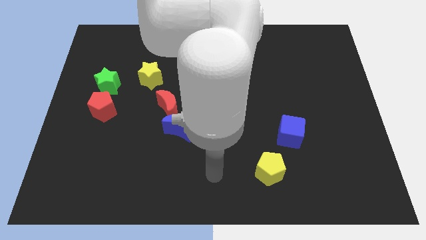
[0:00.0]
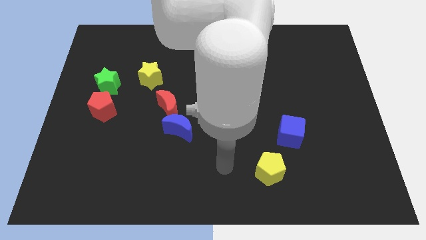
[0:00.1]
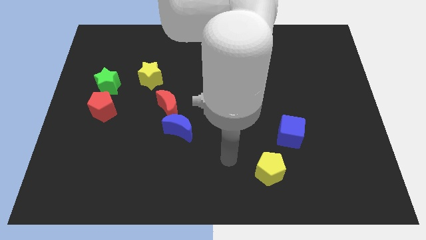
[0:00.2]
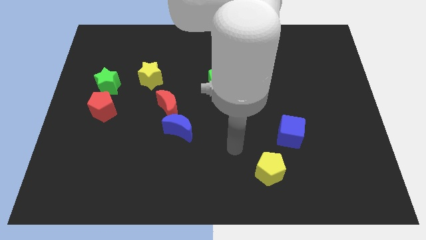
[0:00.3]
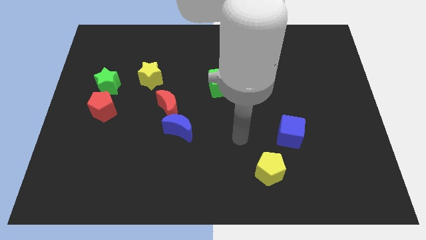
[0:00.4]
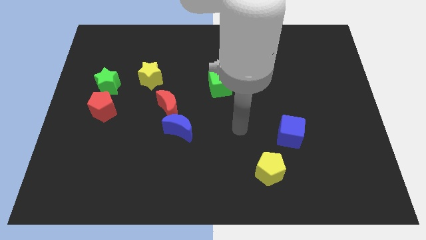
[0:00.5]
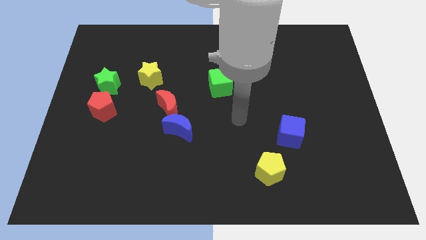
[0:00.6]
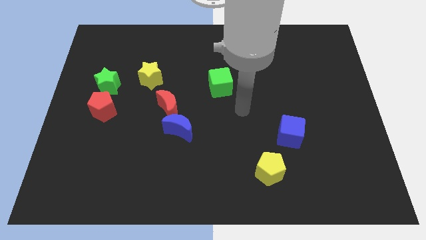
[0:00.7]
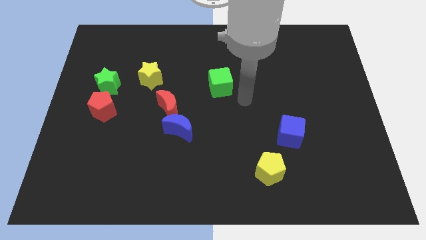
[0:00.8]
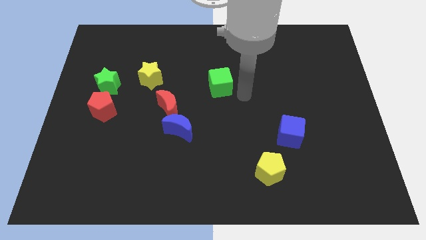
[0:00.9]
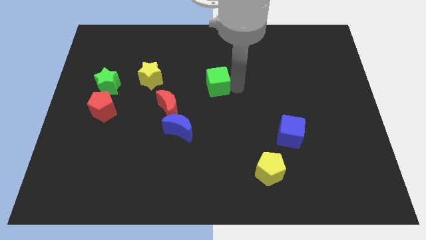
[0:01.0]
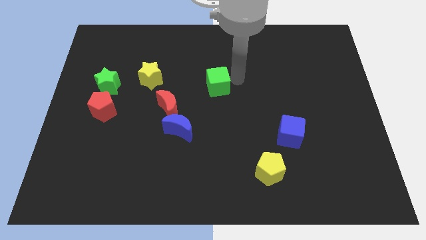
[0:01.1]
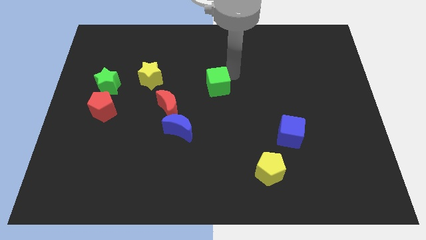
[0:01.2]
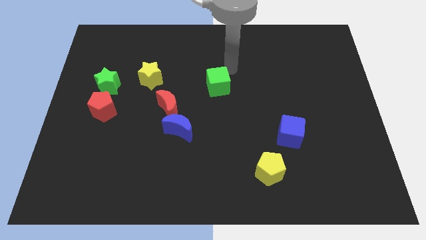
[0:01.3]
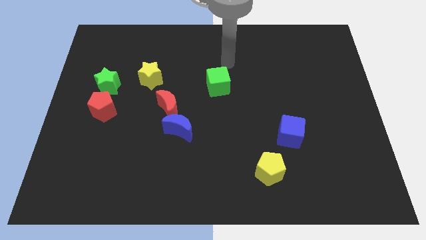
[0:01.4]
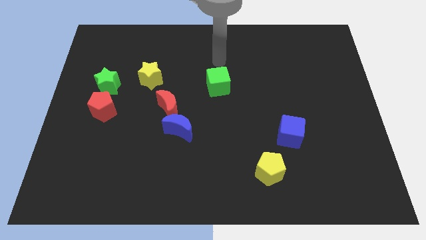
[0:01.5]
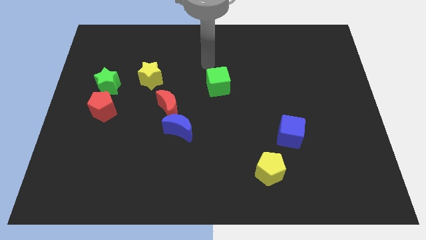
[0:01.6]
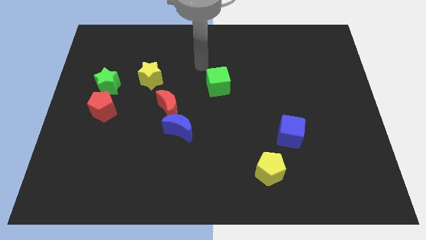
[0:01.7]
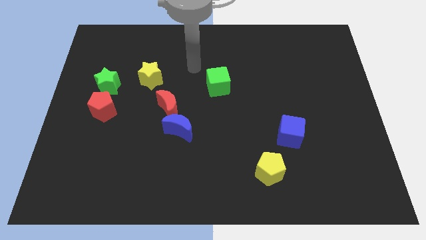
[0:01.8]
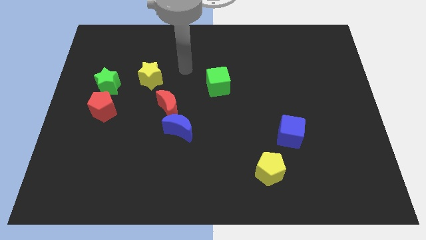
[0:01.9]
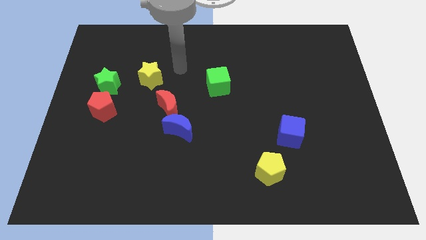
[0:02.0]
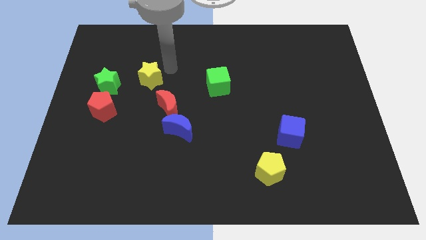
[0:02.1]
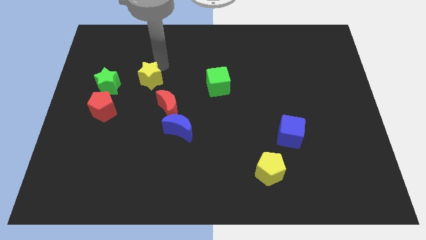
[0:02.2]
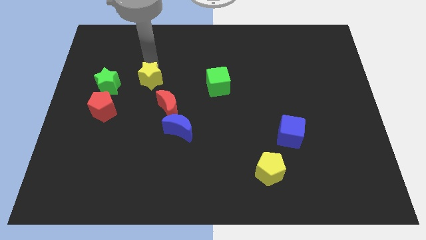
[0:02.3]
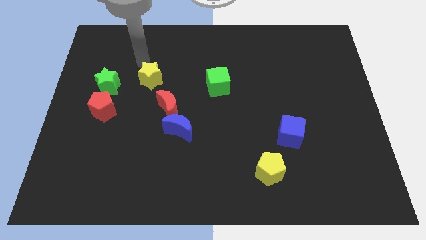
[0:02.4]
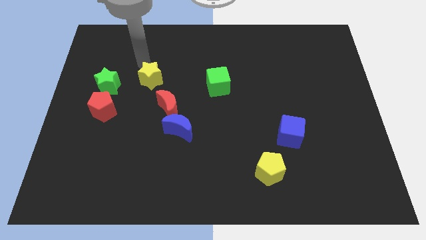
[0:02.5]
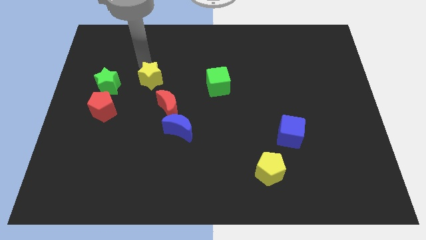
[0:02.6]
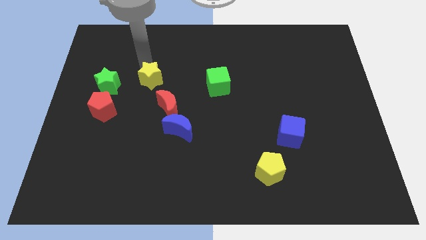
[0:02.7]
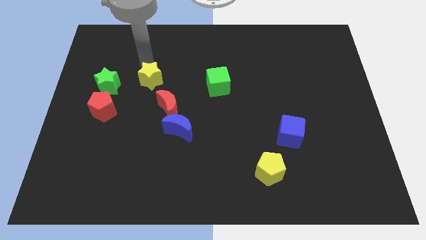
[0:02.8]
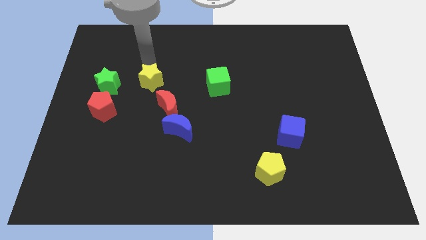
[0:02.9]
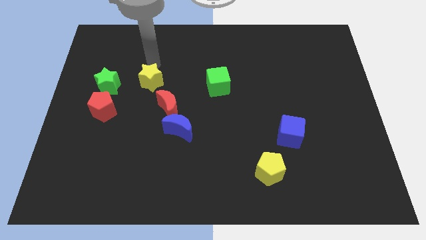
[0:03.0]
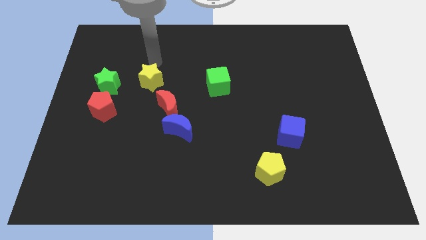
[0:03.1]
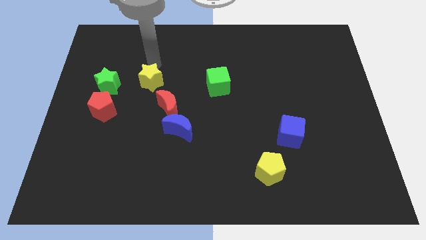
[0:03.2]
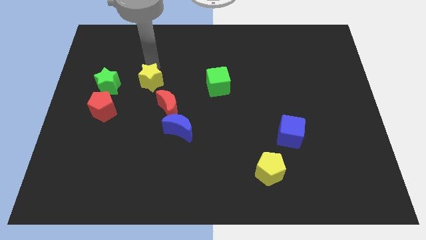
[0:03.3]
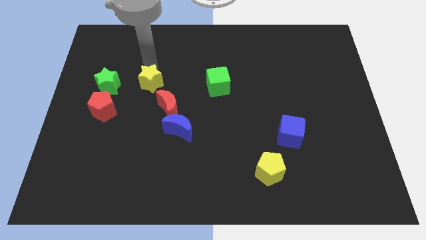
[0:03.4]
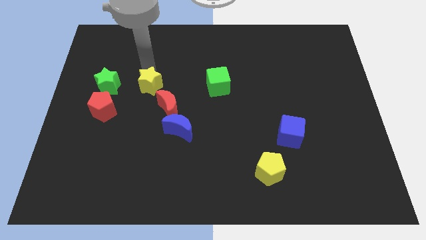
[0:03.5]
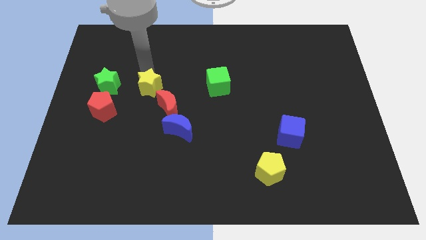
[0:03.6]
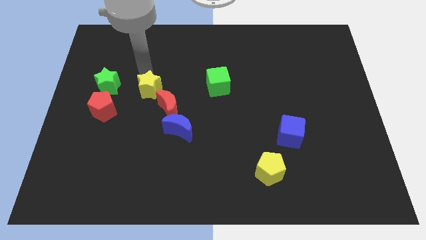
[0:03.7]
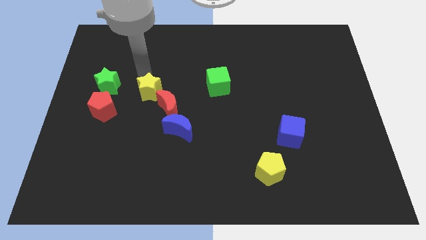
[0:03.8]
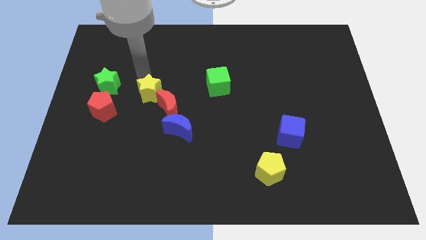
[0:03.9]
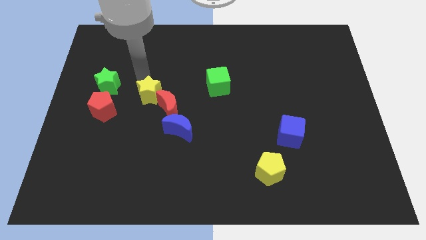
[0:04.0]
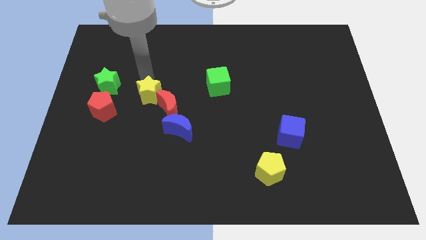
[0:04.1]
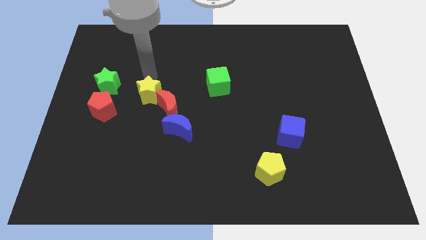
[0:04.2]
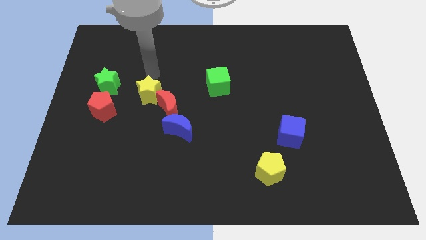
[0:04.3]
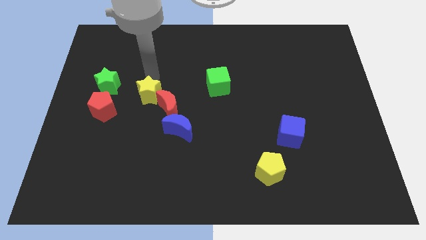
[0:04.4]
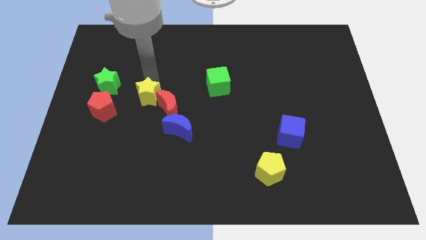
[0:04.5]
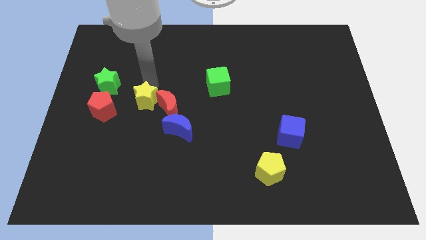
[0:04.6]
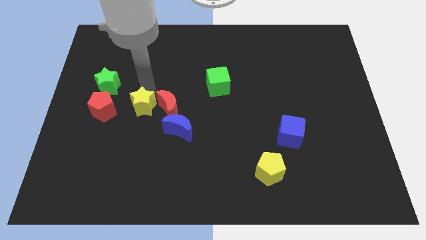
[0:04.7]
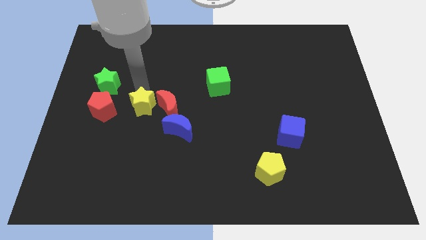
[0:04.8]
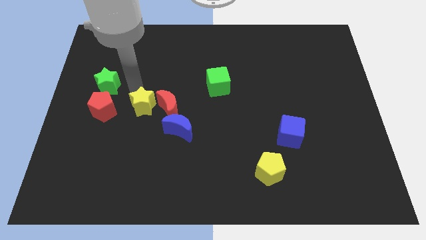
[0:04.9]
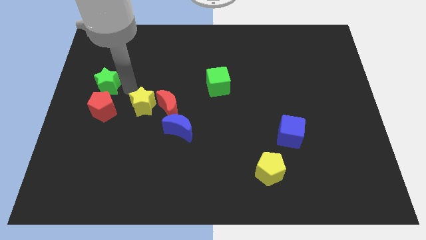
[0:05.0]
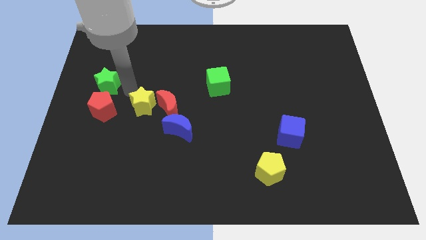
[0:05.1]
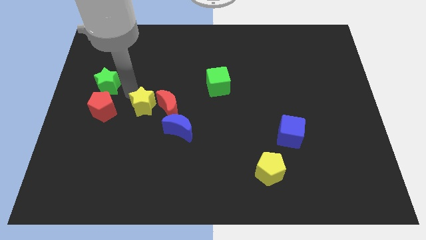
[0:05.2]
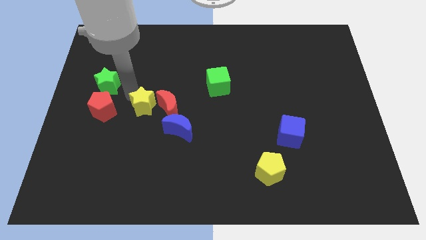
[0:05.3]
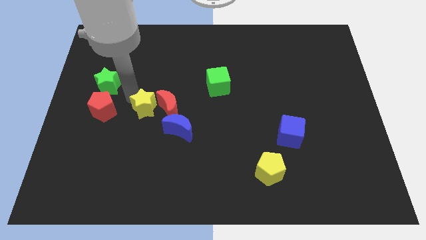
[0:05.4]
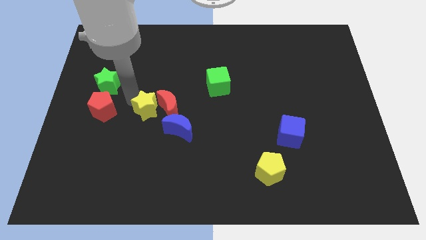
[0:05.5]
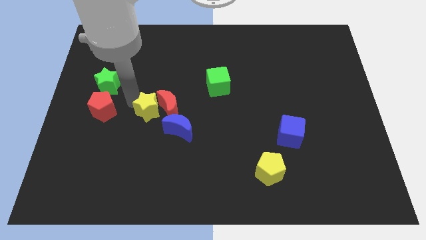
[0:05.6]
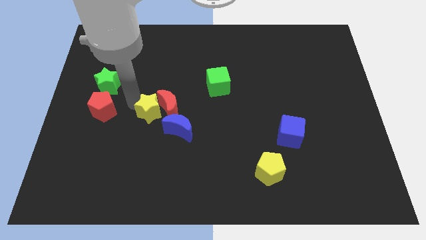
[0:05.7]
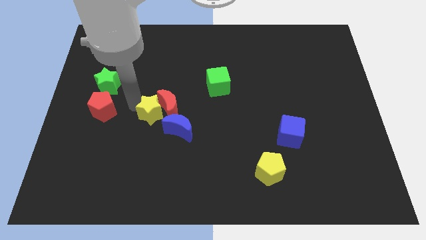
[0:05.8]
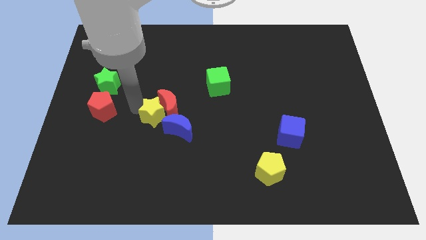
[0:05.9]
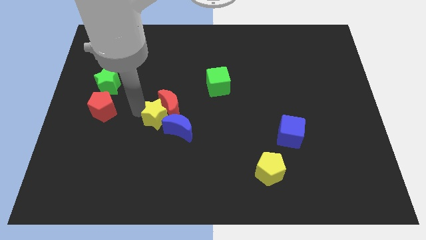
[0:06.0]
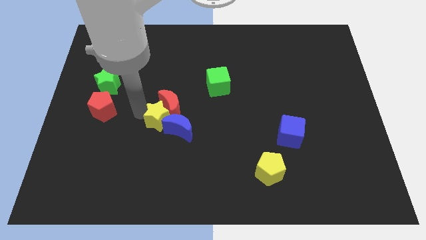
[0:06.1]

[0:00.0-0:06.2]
push the yellow star towards the blue moon

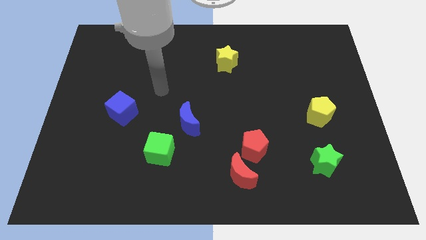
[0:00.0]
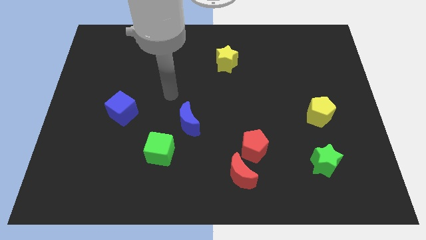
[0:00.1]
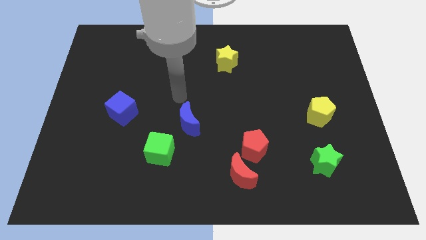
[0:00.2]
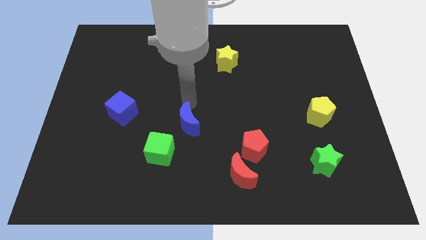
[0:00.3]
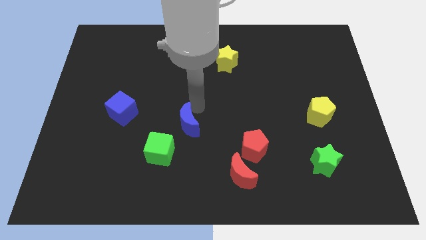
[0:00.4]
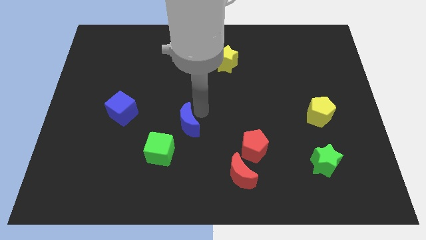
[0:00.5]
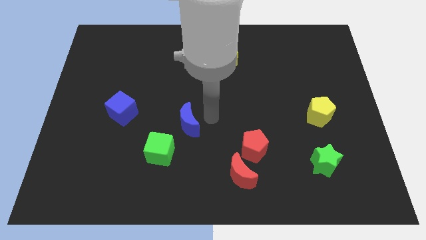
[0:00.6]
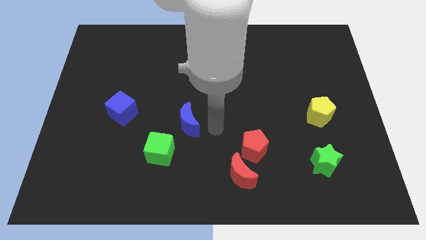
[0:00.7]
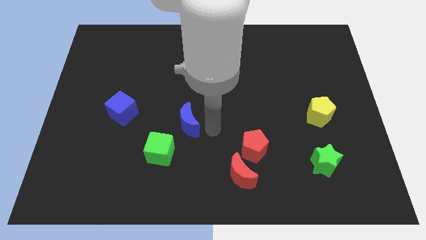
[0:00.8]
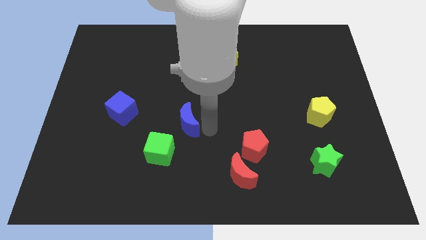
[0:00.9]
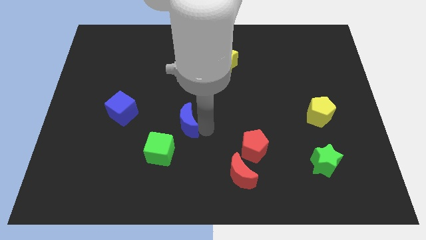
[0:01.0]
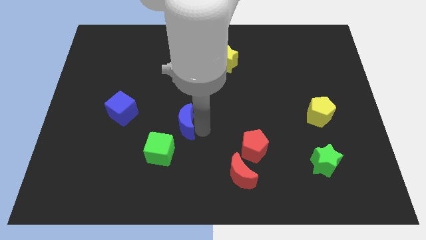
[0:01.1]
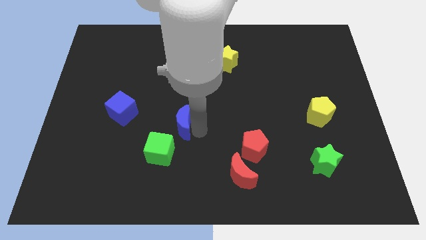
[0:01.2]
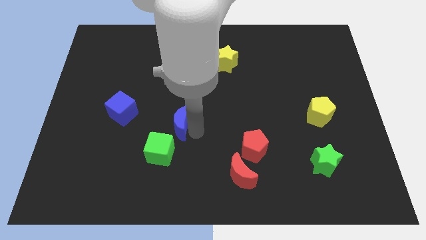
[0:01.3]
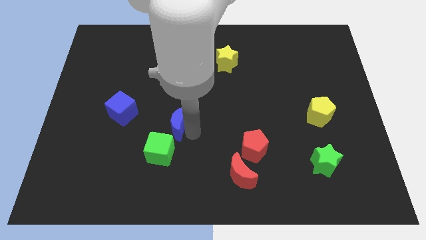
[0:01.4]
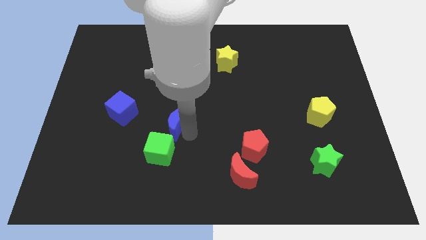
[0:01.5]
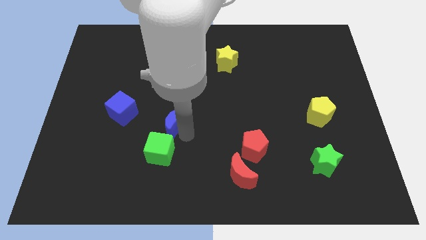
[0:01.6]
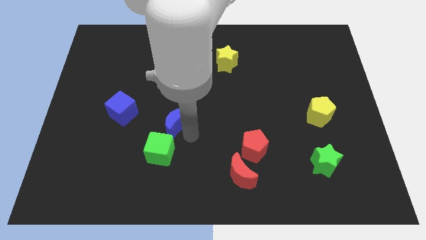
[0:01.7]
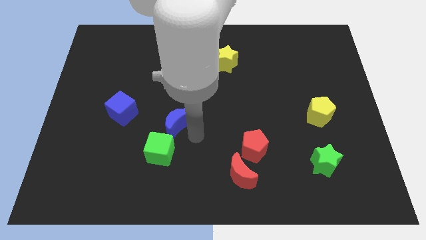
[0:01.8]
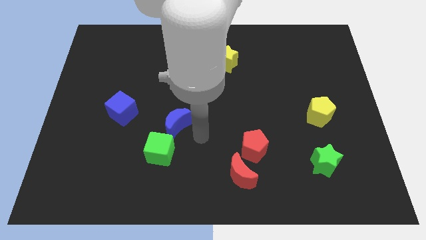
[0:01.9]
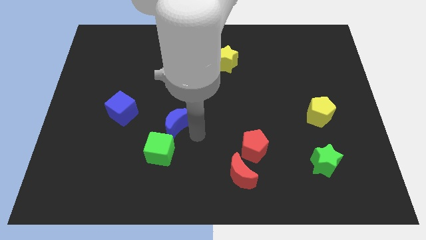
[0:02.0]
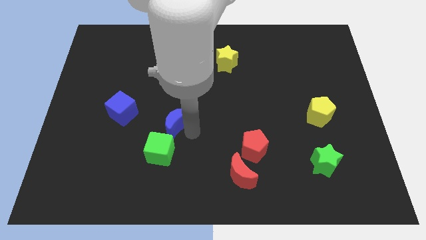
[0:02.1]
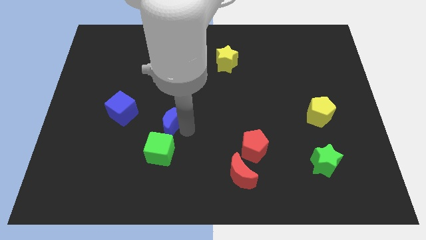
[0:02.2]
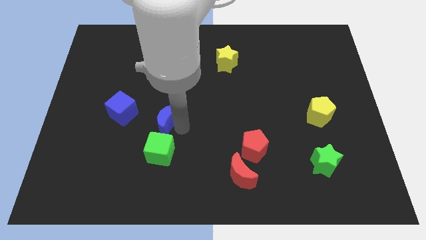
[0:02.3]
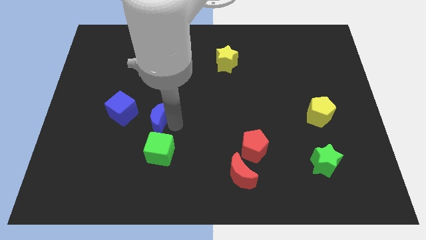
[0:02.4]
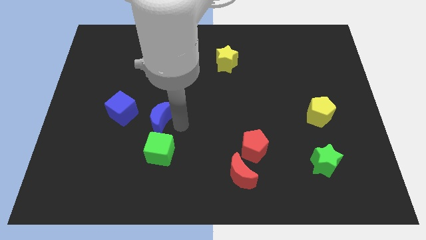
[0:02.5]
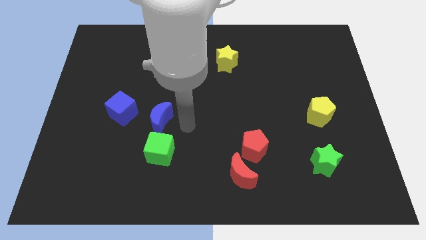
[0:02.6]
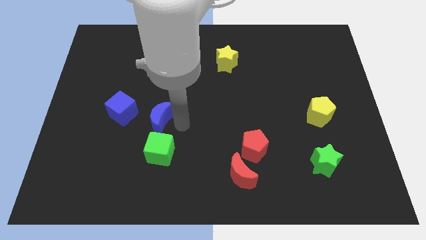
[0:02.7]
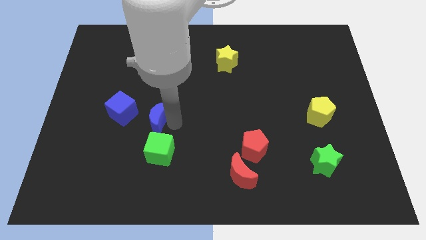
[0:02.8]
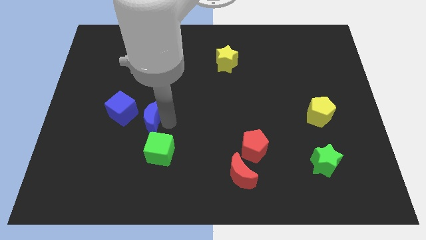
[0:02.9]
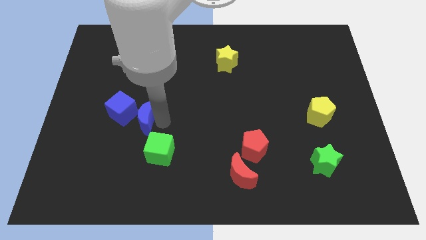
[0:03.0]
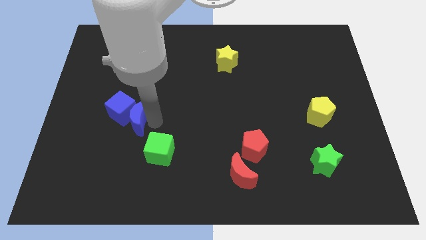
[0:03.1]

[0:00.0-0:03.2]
slide the blue moon next to the blue cube
